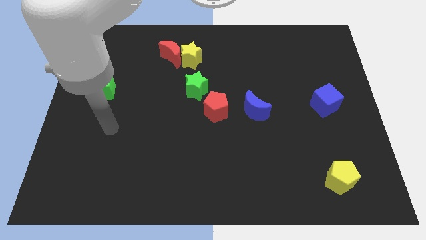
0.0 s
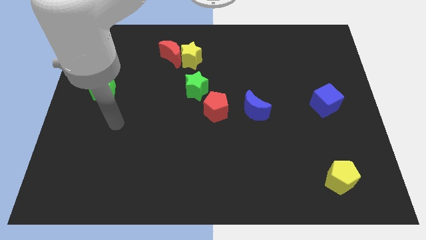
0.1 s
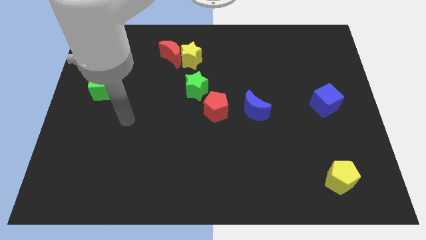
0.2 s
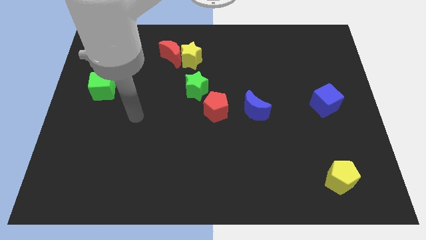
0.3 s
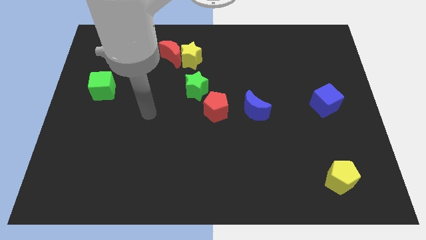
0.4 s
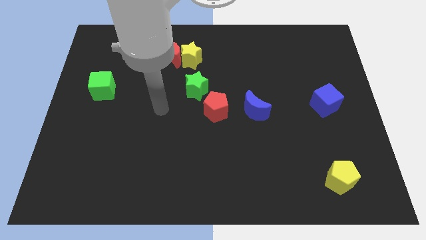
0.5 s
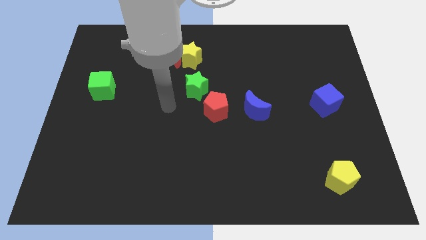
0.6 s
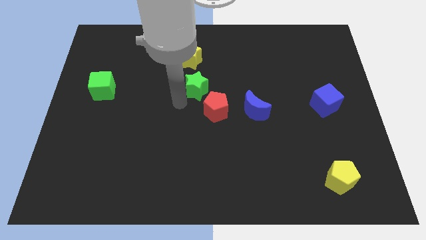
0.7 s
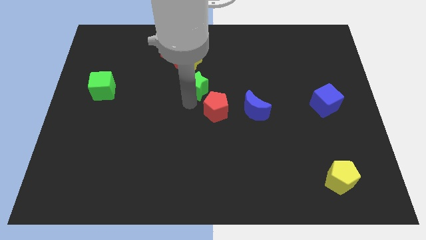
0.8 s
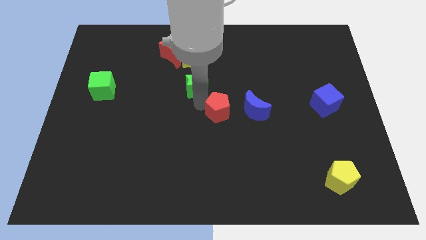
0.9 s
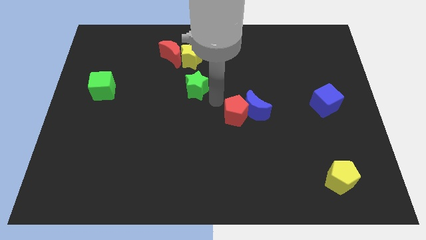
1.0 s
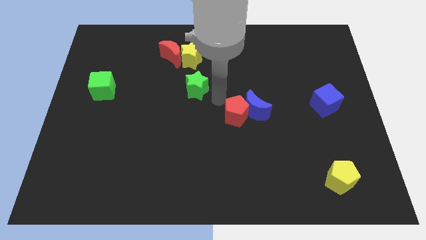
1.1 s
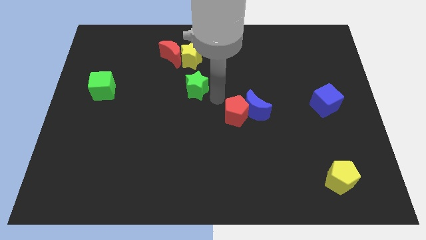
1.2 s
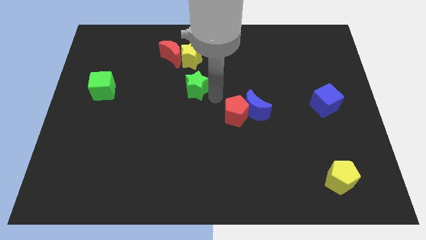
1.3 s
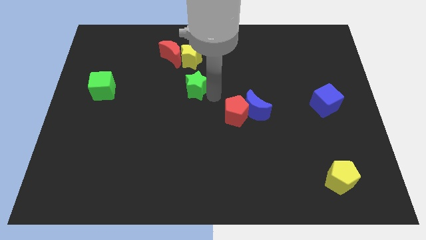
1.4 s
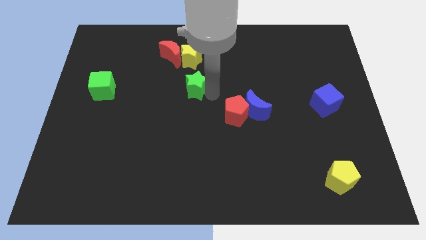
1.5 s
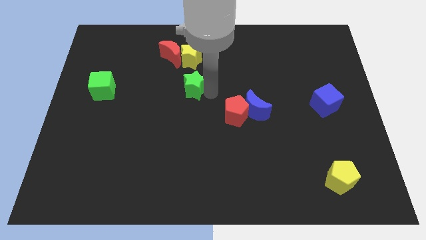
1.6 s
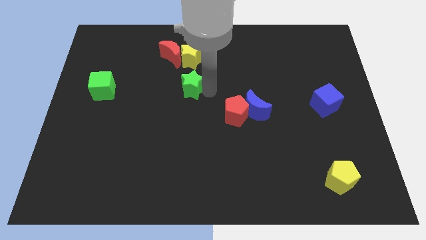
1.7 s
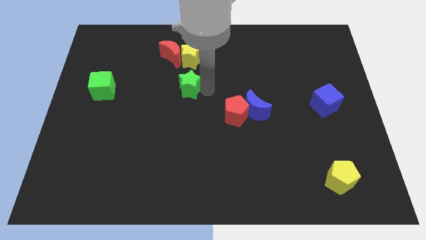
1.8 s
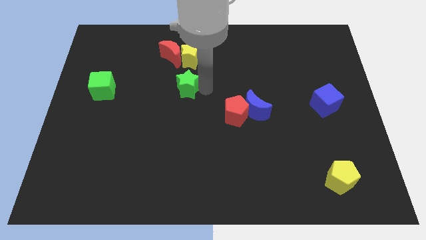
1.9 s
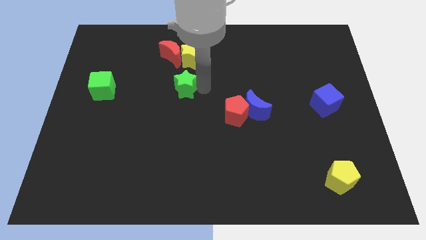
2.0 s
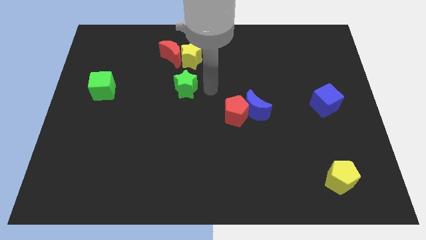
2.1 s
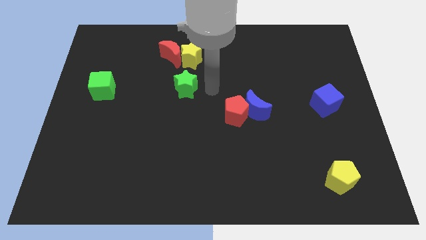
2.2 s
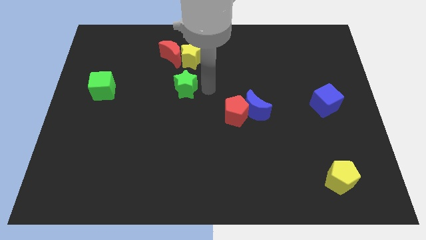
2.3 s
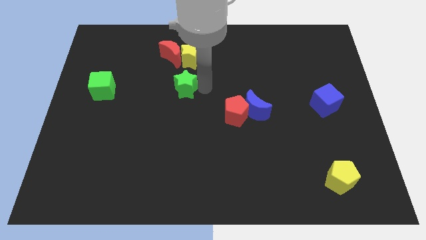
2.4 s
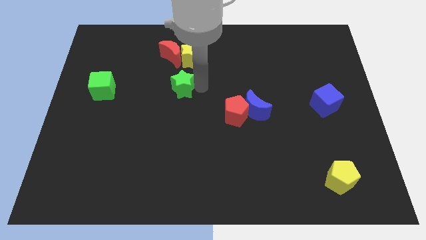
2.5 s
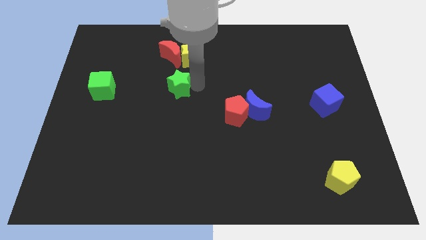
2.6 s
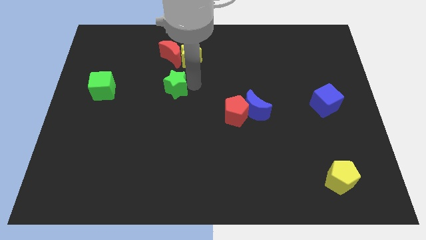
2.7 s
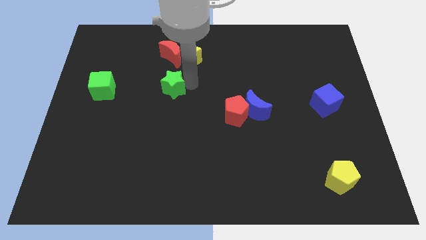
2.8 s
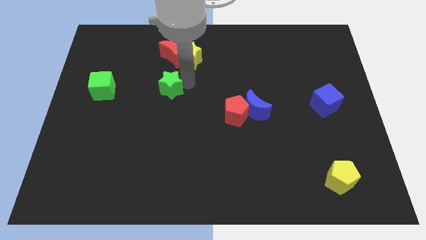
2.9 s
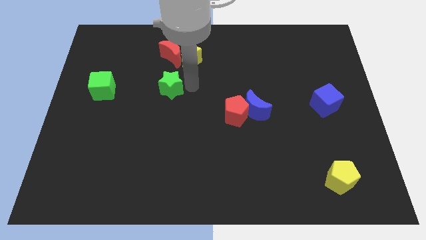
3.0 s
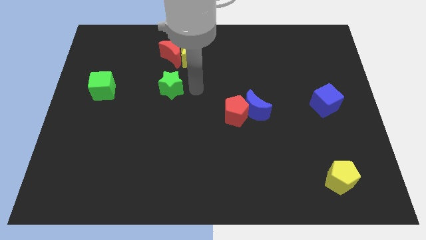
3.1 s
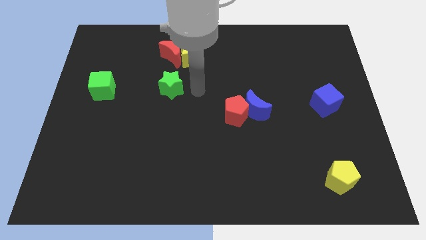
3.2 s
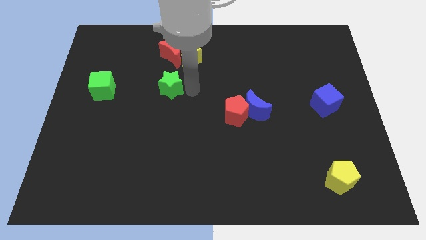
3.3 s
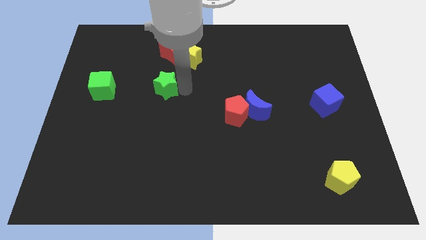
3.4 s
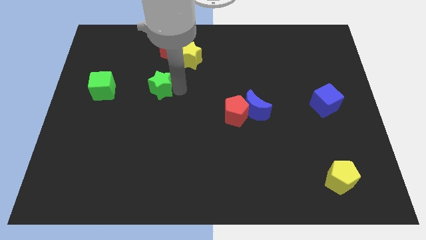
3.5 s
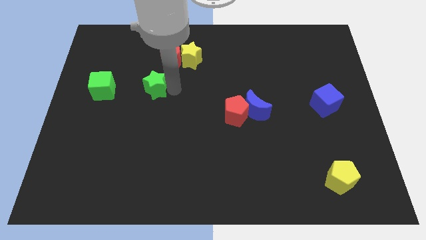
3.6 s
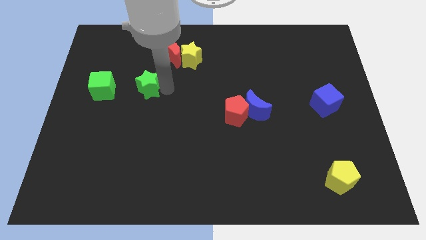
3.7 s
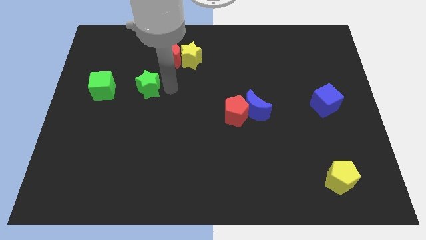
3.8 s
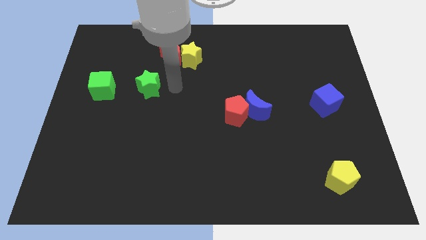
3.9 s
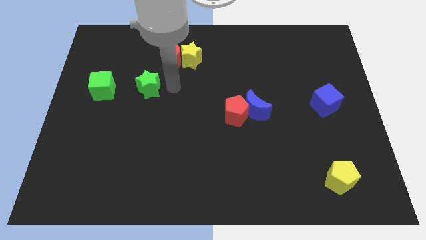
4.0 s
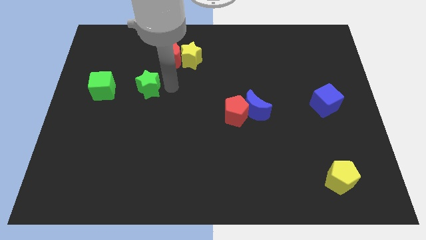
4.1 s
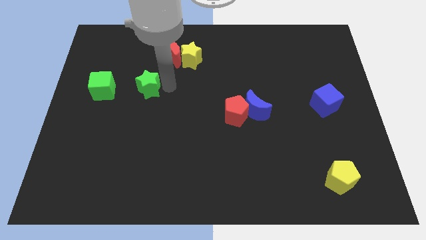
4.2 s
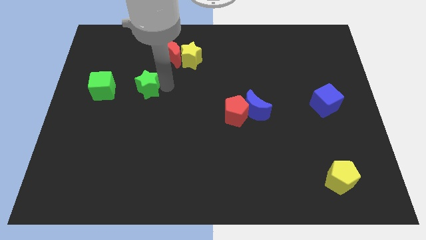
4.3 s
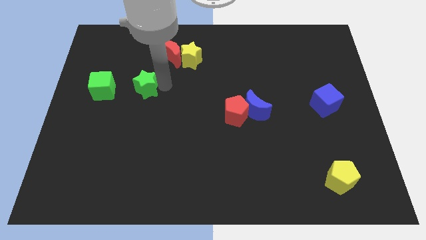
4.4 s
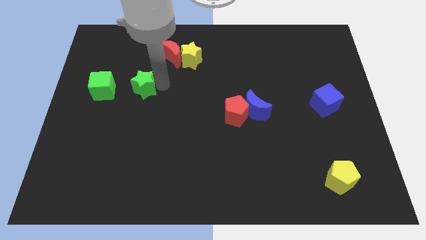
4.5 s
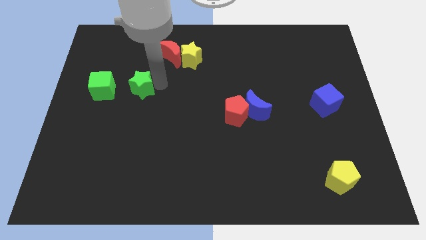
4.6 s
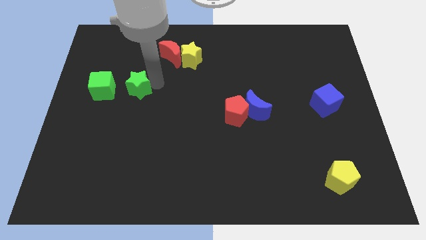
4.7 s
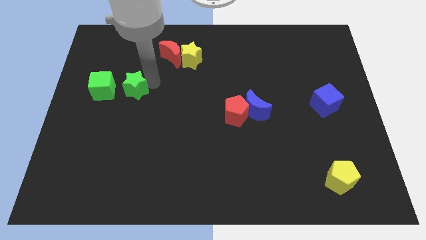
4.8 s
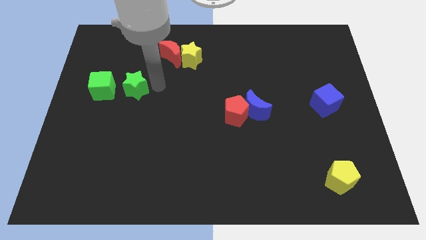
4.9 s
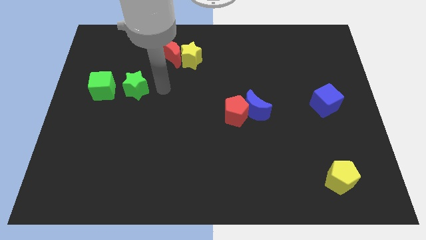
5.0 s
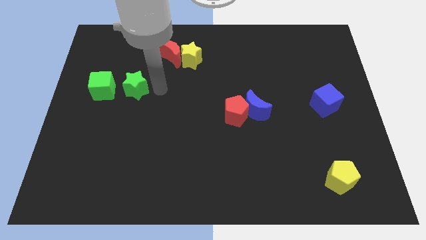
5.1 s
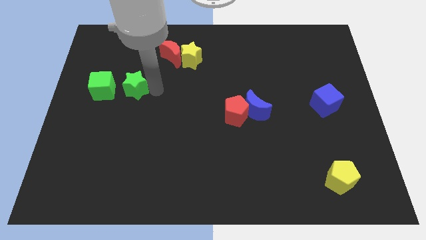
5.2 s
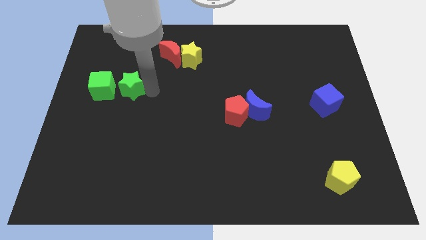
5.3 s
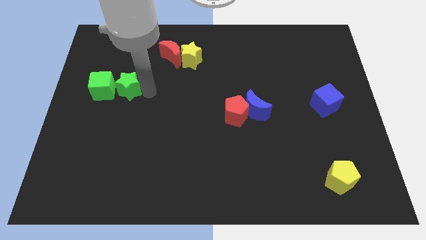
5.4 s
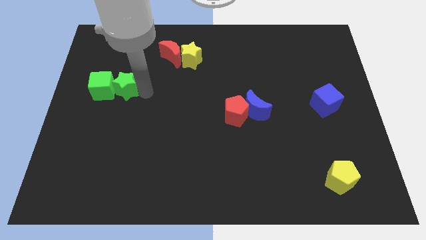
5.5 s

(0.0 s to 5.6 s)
put the green star next to the green cube

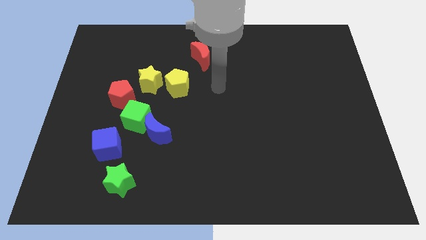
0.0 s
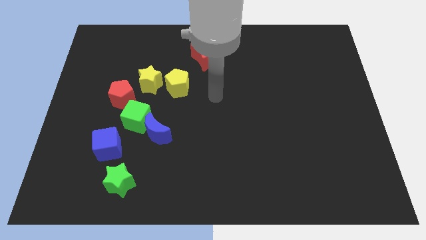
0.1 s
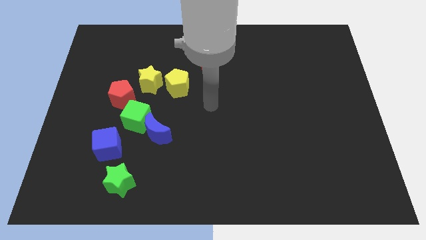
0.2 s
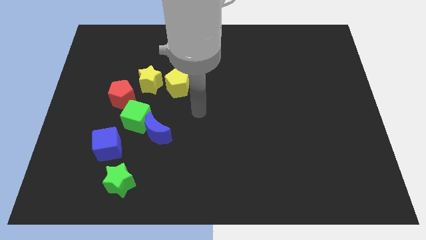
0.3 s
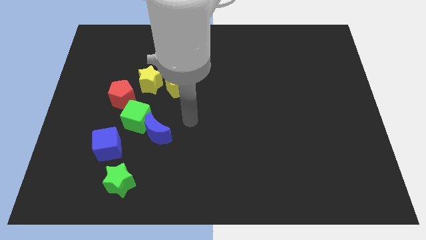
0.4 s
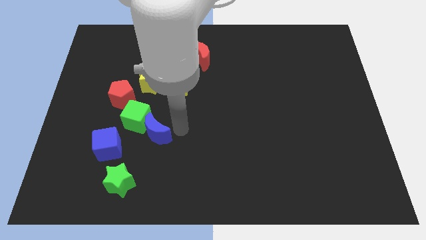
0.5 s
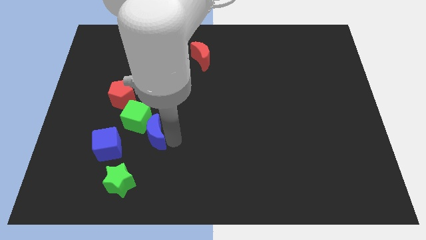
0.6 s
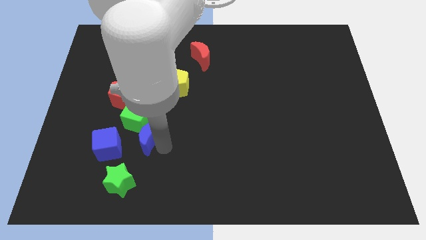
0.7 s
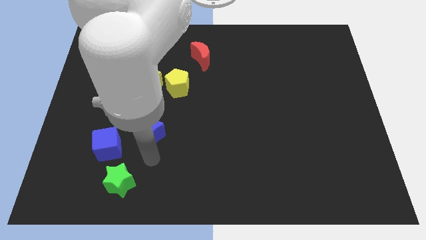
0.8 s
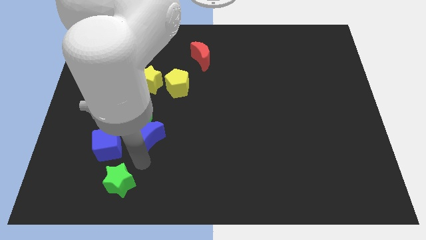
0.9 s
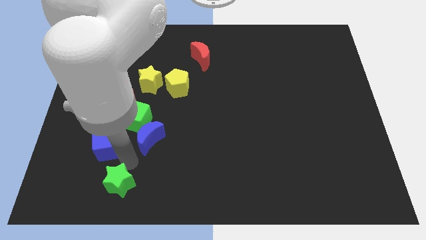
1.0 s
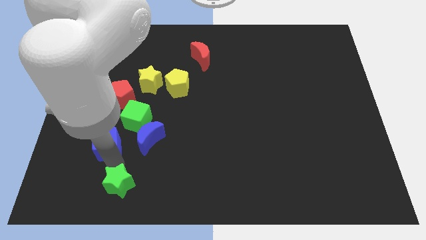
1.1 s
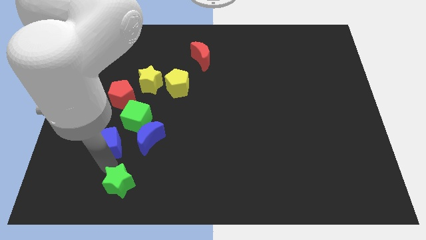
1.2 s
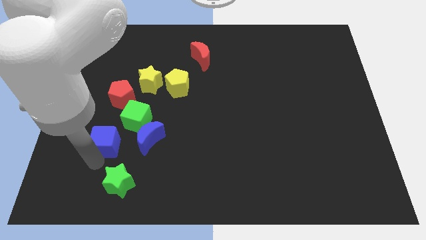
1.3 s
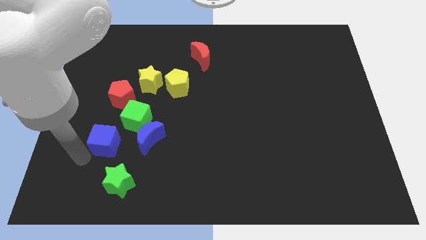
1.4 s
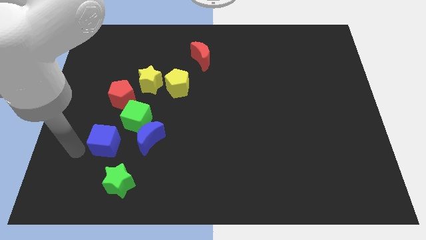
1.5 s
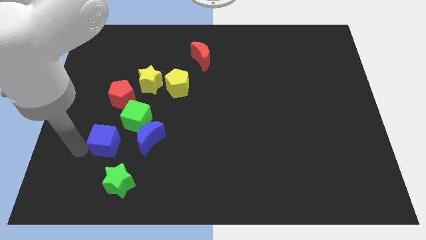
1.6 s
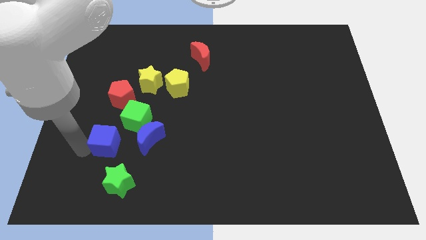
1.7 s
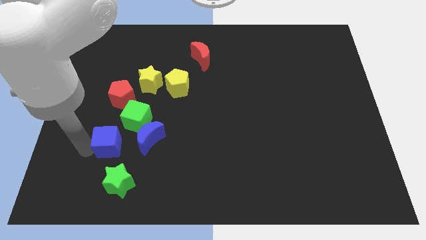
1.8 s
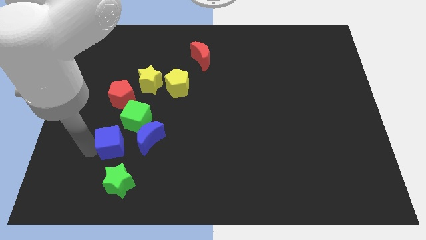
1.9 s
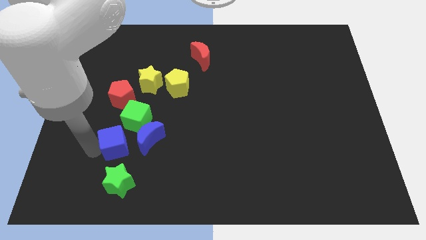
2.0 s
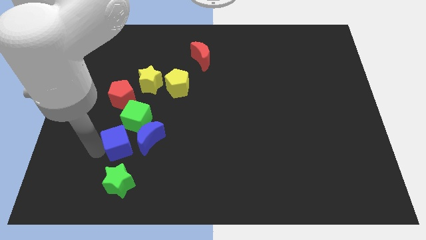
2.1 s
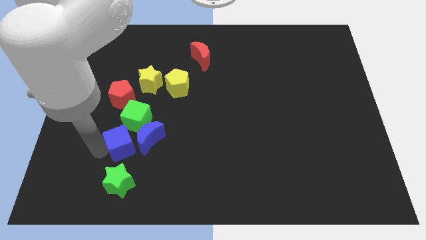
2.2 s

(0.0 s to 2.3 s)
move the blue cube close to the blue moon
